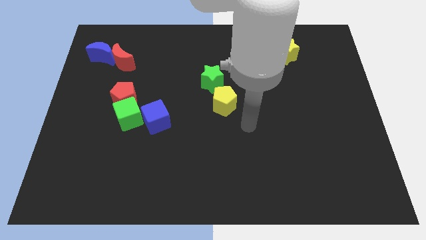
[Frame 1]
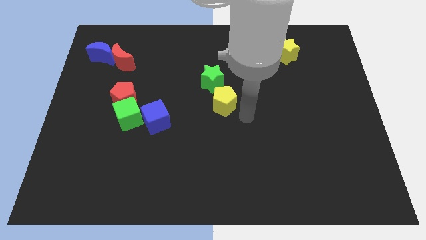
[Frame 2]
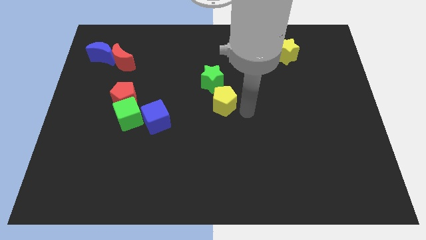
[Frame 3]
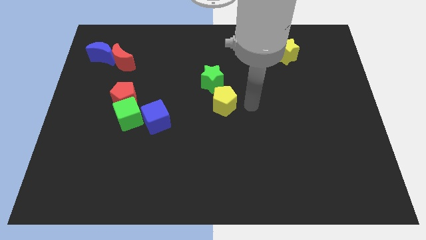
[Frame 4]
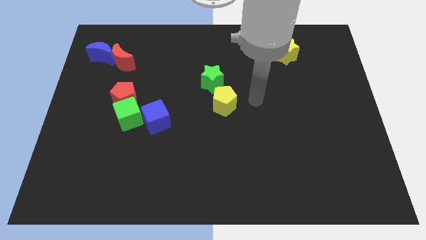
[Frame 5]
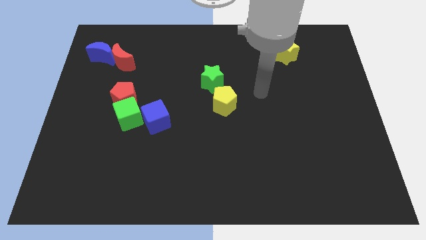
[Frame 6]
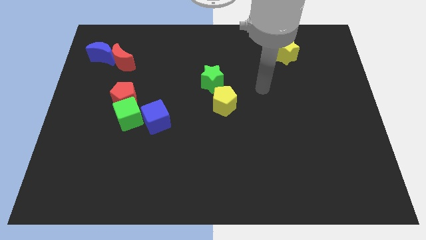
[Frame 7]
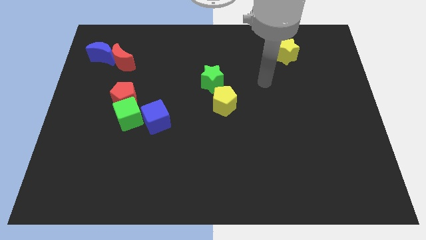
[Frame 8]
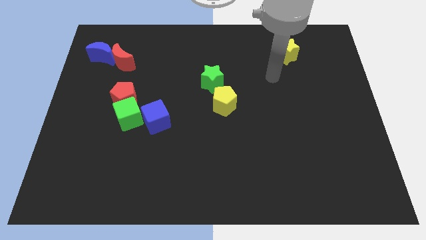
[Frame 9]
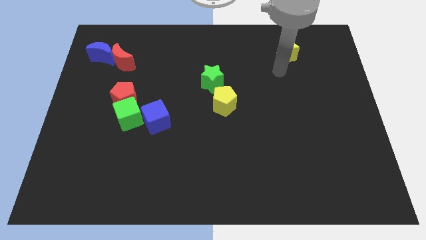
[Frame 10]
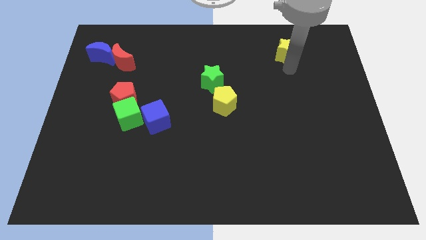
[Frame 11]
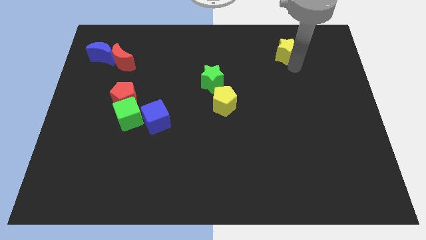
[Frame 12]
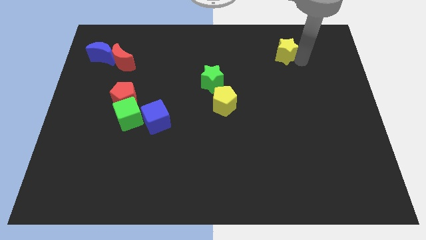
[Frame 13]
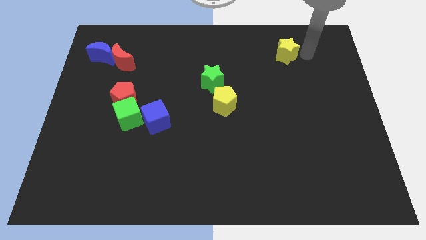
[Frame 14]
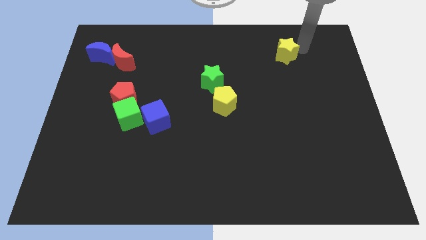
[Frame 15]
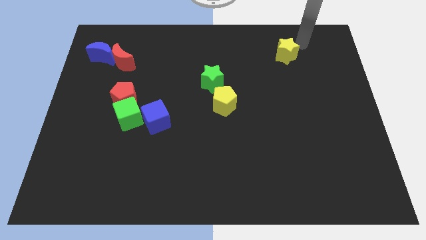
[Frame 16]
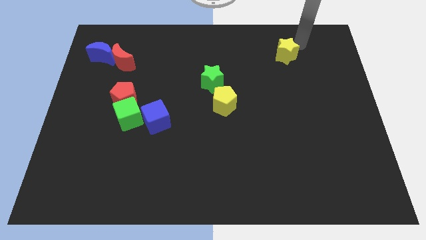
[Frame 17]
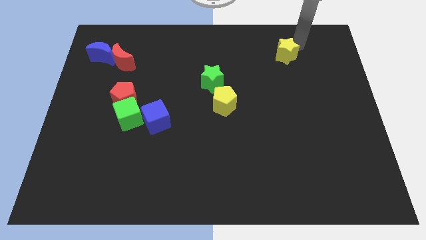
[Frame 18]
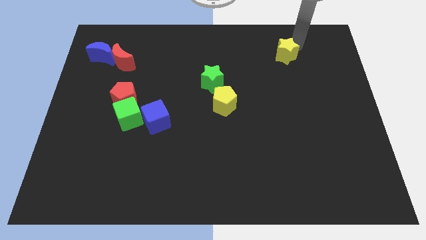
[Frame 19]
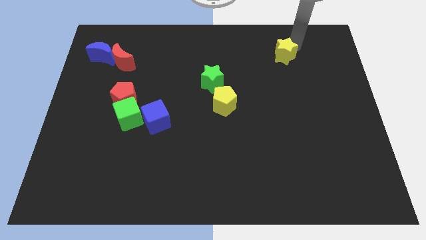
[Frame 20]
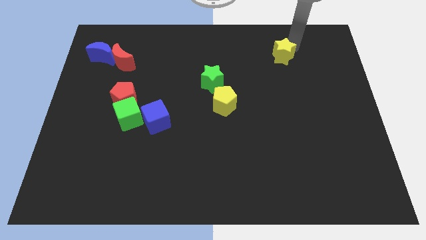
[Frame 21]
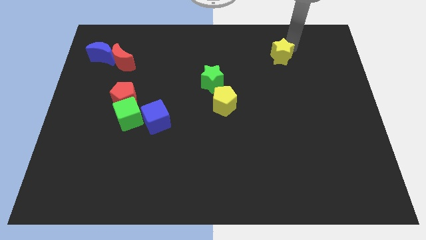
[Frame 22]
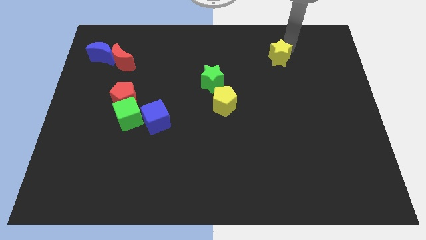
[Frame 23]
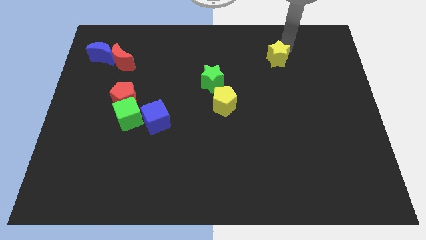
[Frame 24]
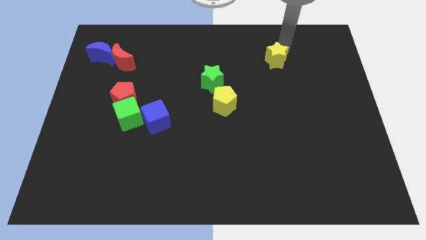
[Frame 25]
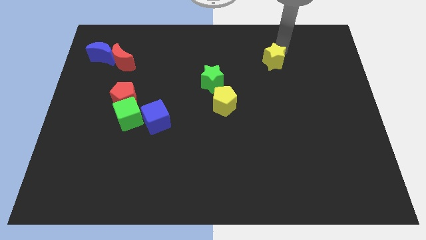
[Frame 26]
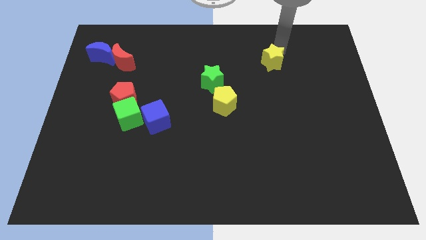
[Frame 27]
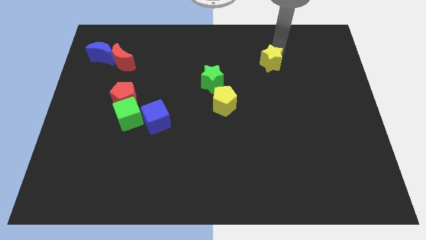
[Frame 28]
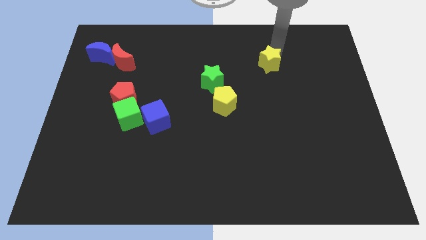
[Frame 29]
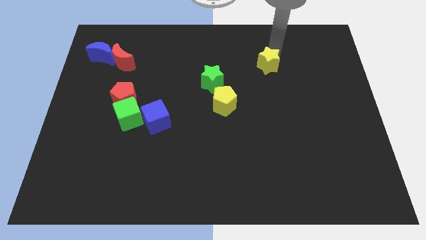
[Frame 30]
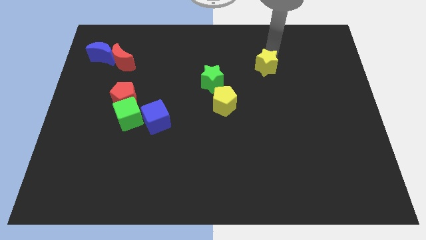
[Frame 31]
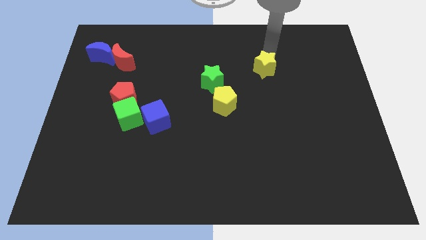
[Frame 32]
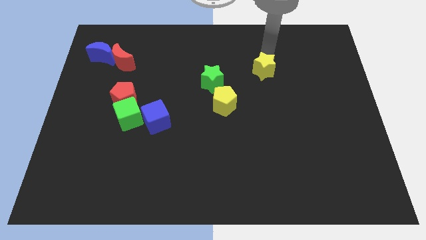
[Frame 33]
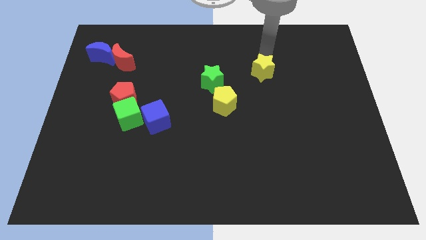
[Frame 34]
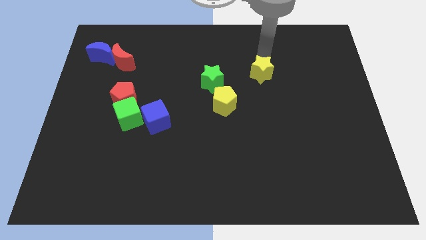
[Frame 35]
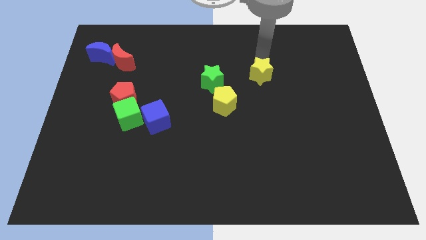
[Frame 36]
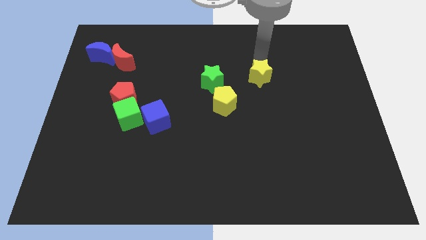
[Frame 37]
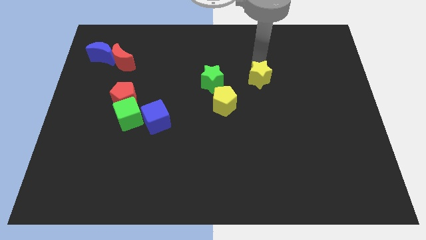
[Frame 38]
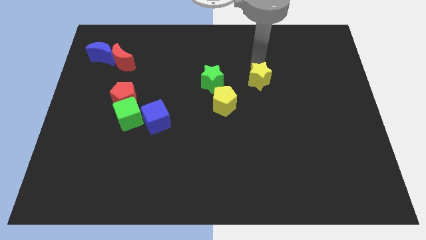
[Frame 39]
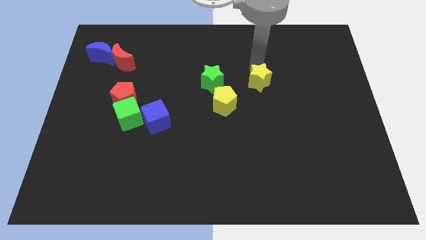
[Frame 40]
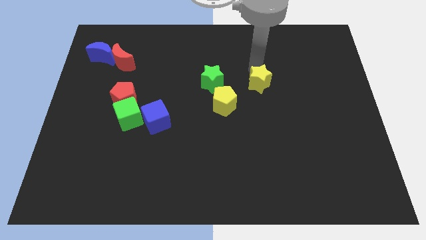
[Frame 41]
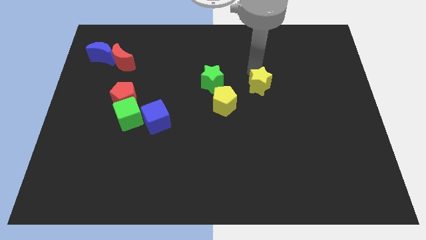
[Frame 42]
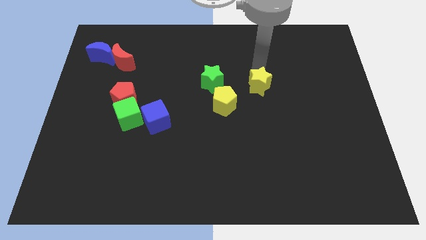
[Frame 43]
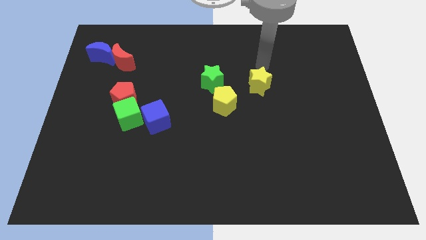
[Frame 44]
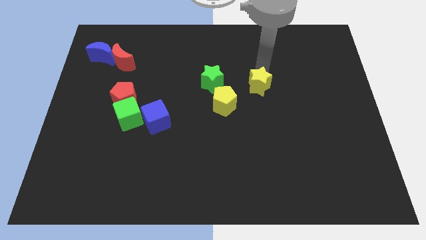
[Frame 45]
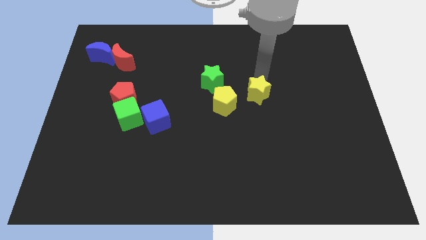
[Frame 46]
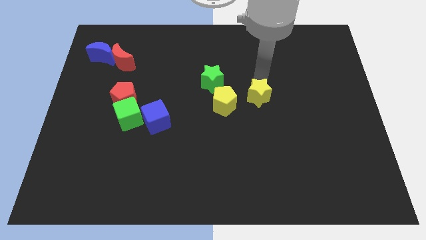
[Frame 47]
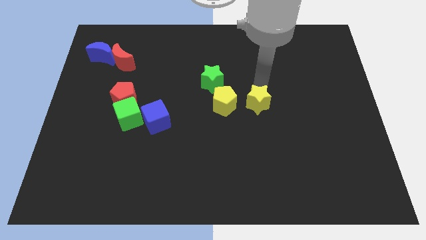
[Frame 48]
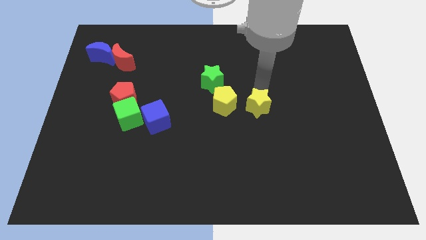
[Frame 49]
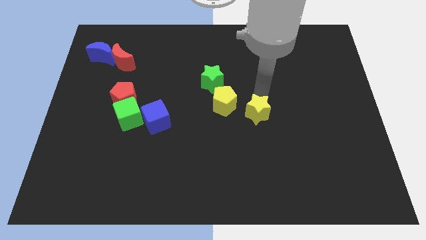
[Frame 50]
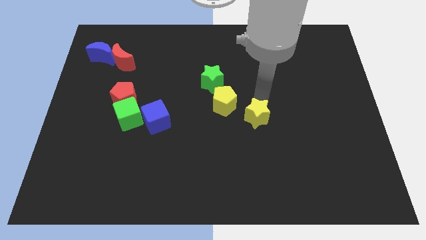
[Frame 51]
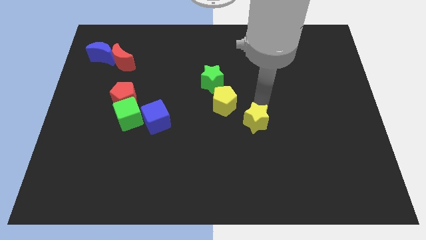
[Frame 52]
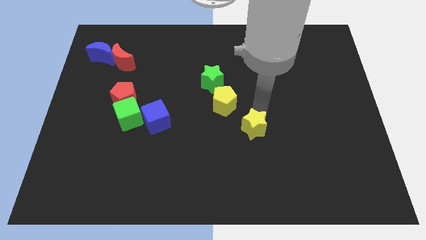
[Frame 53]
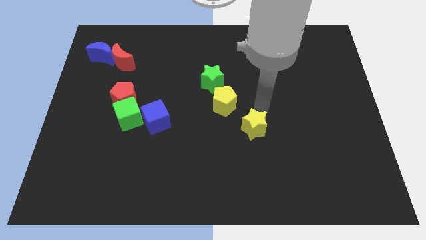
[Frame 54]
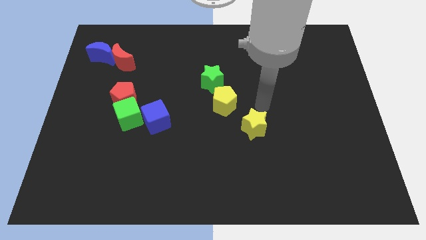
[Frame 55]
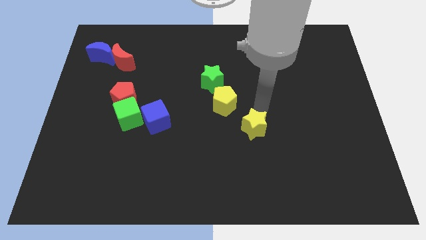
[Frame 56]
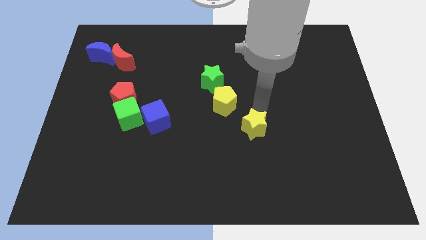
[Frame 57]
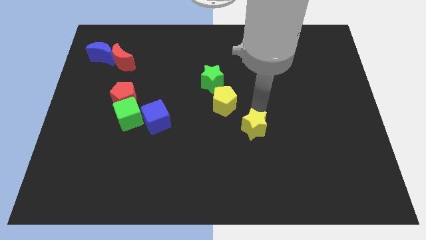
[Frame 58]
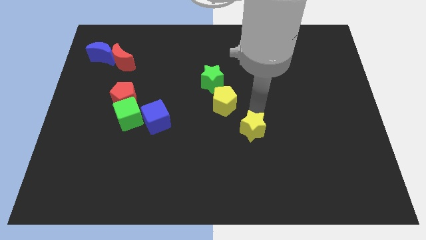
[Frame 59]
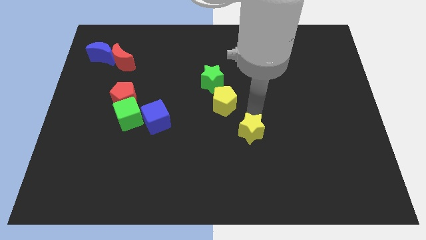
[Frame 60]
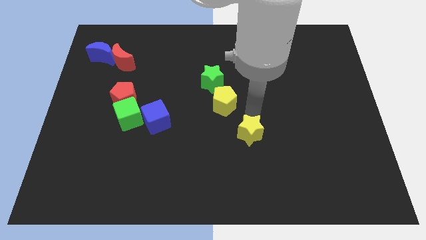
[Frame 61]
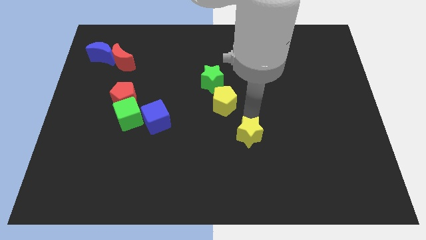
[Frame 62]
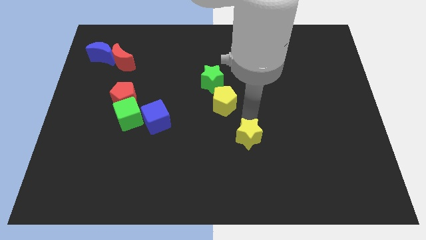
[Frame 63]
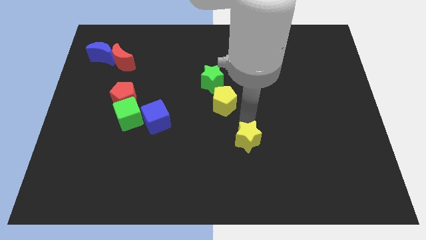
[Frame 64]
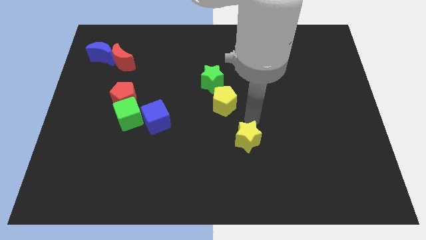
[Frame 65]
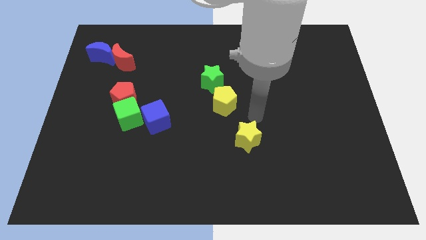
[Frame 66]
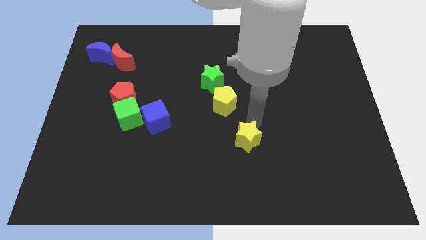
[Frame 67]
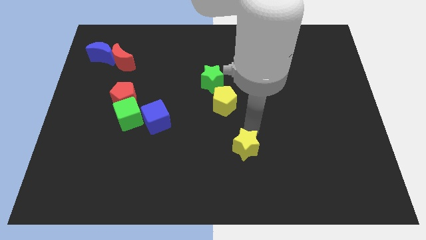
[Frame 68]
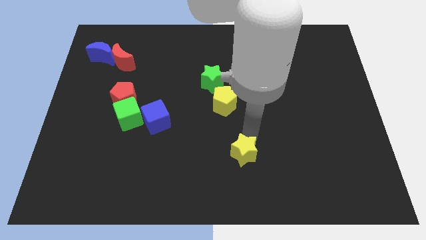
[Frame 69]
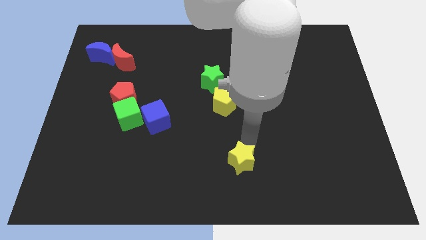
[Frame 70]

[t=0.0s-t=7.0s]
move the yellow star to the bottom
